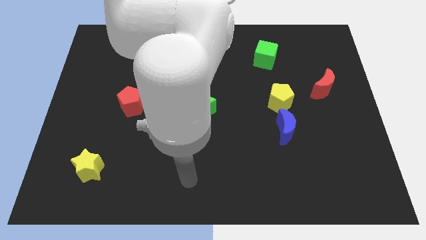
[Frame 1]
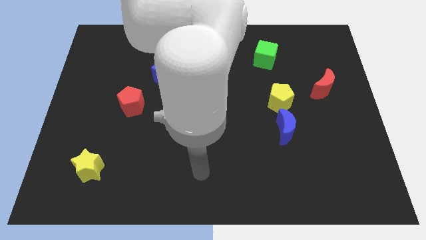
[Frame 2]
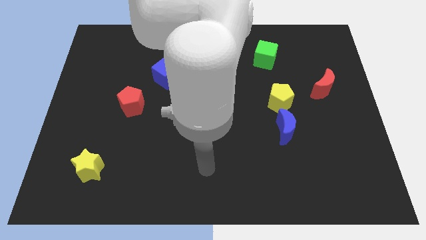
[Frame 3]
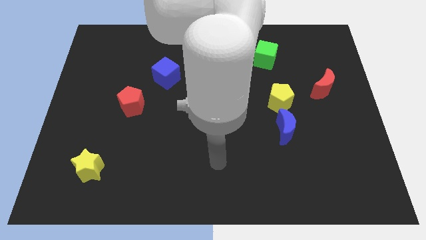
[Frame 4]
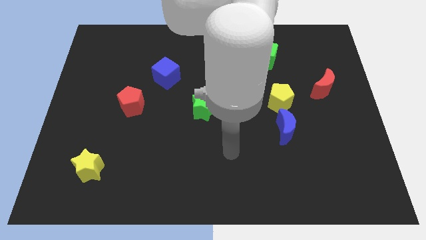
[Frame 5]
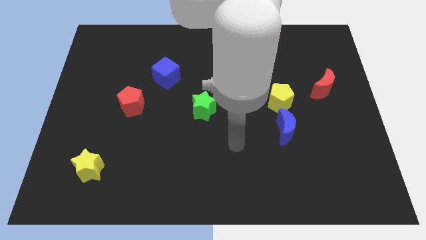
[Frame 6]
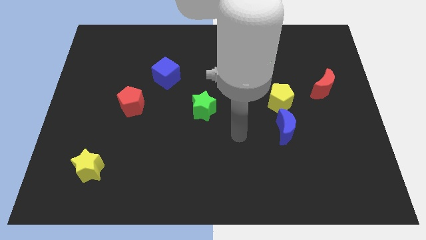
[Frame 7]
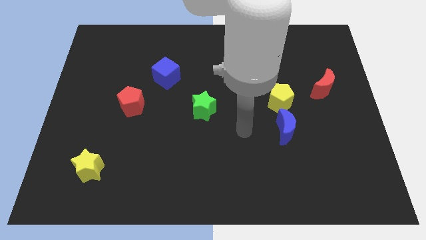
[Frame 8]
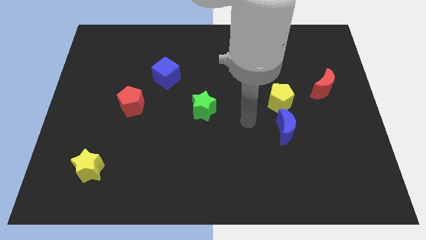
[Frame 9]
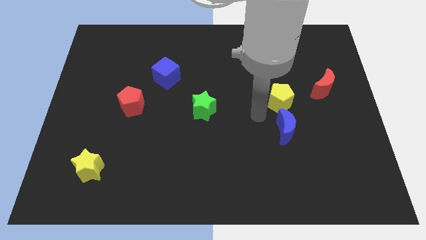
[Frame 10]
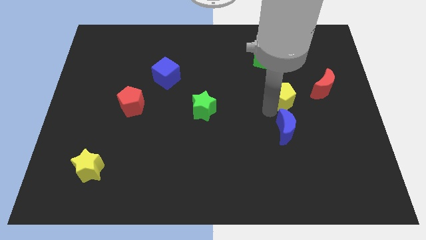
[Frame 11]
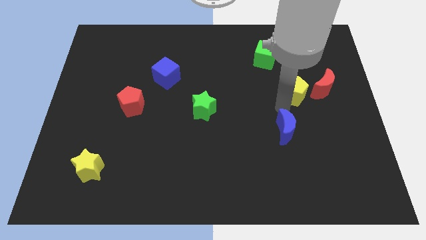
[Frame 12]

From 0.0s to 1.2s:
pull the blue moon apart from the yellow pentagon

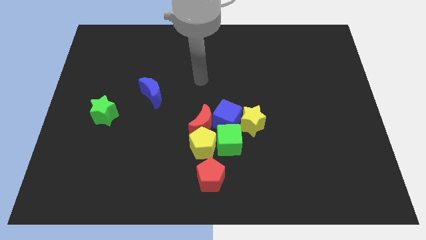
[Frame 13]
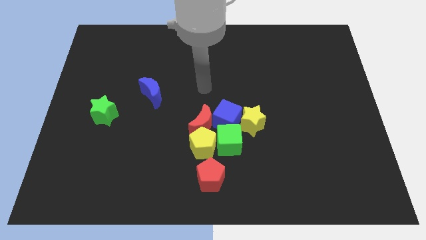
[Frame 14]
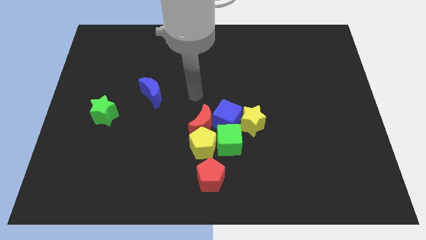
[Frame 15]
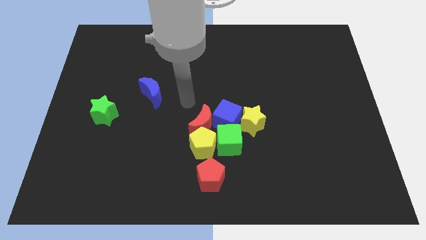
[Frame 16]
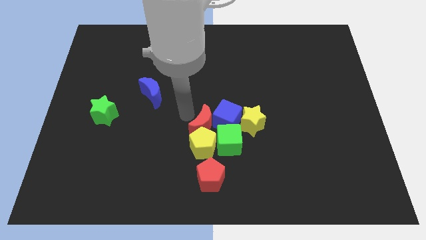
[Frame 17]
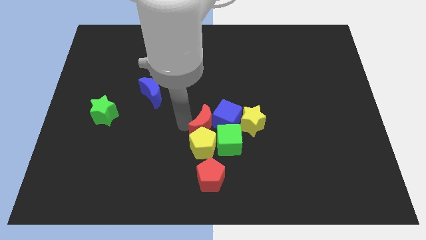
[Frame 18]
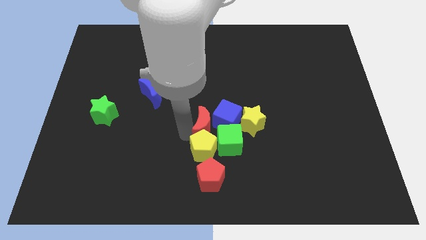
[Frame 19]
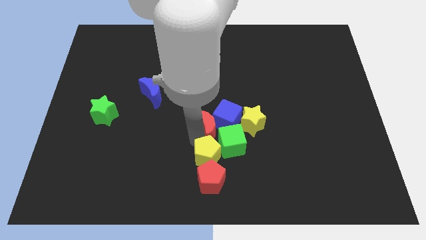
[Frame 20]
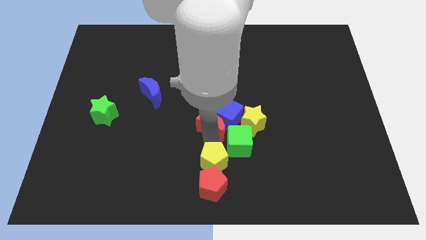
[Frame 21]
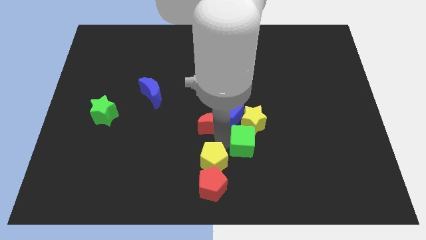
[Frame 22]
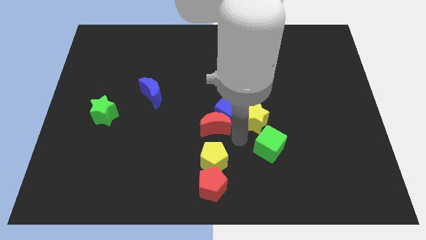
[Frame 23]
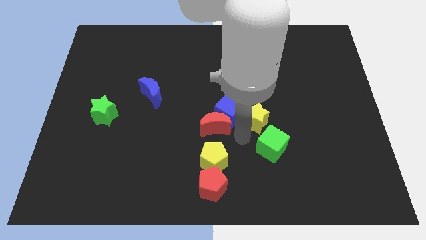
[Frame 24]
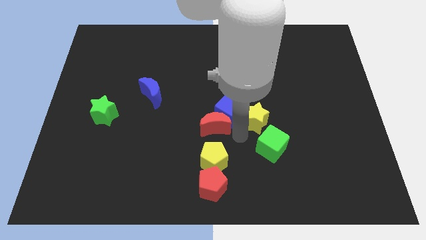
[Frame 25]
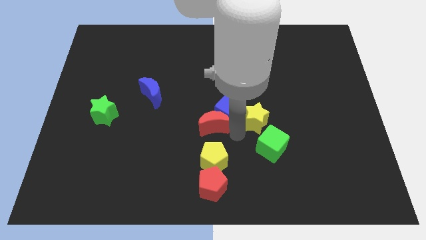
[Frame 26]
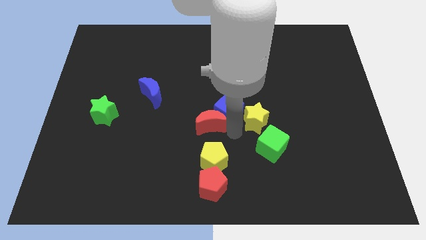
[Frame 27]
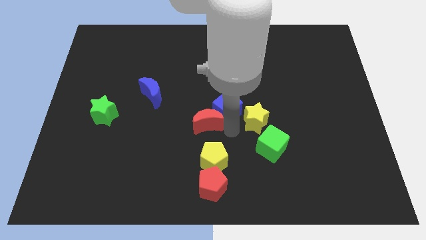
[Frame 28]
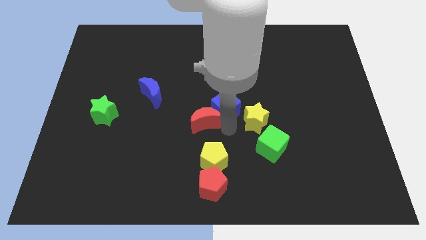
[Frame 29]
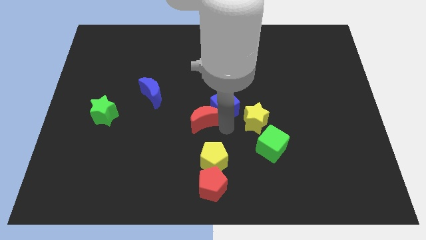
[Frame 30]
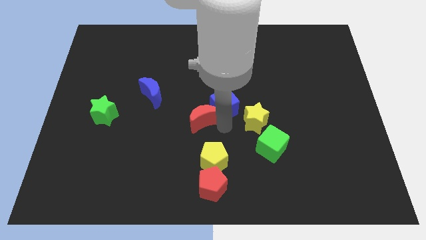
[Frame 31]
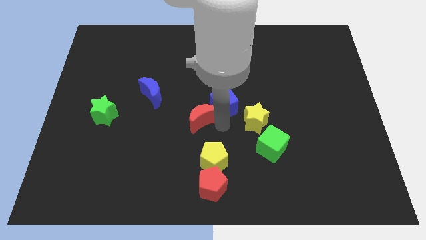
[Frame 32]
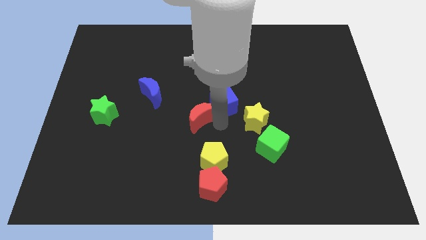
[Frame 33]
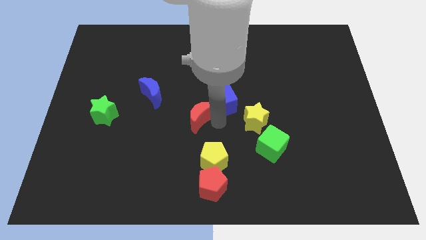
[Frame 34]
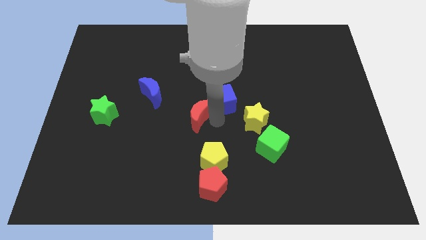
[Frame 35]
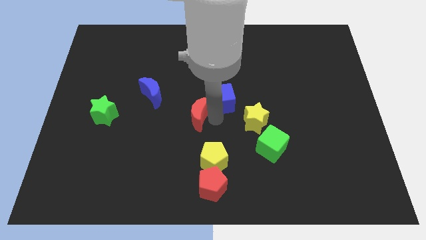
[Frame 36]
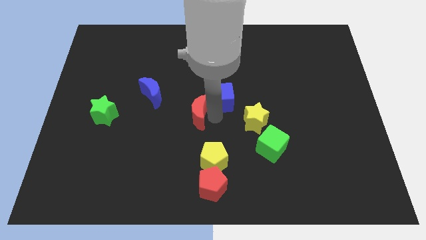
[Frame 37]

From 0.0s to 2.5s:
pull the red moon apart from the clump

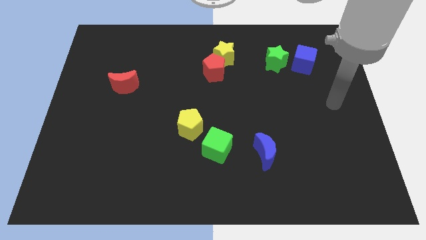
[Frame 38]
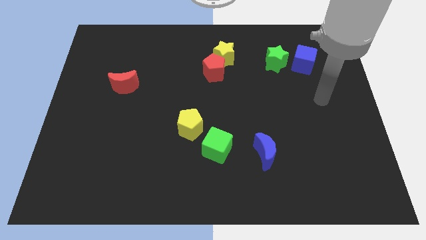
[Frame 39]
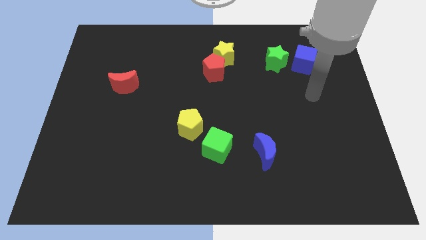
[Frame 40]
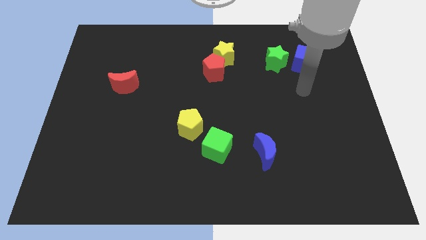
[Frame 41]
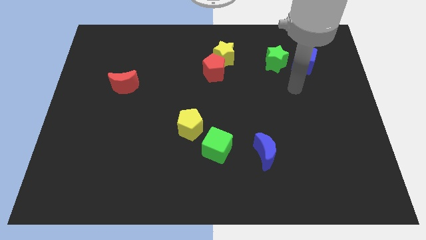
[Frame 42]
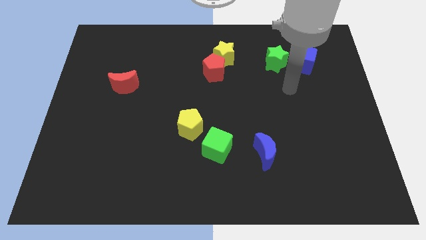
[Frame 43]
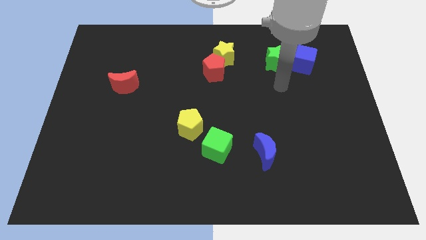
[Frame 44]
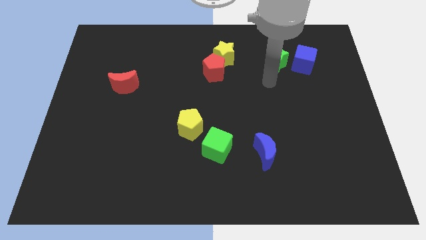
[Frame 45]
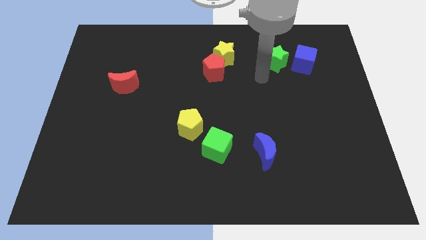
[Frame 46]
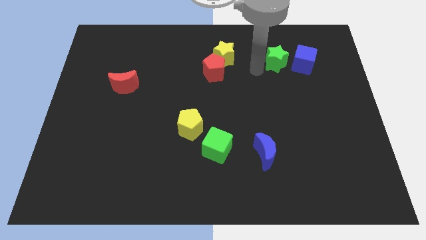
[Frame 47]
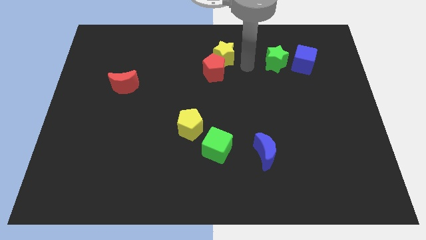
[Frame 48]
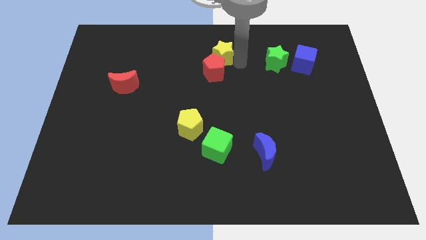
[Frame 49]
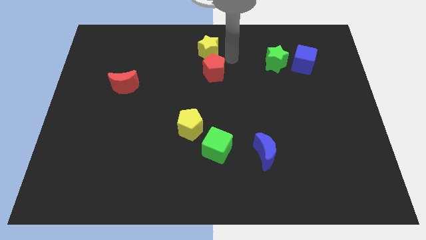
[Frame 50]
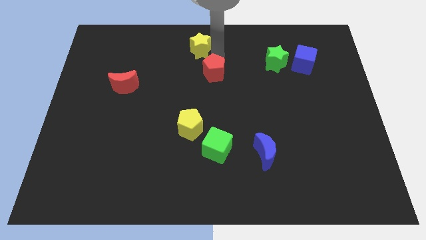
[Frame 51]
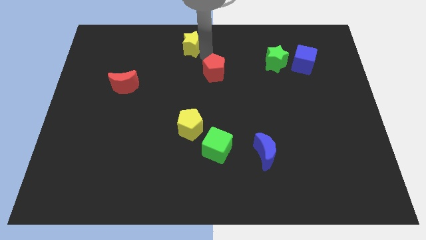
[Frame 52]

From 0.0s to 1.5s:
separate the red pentagon from the yellow star

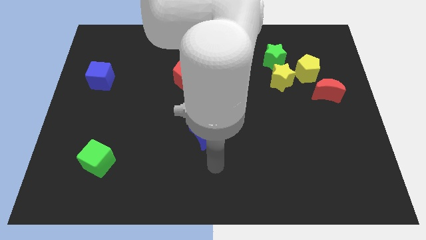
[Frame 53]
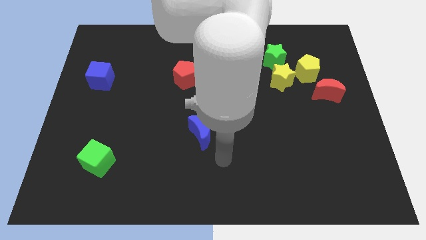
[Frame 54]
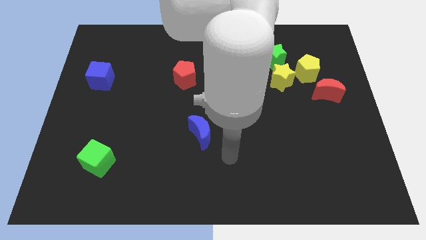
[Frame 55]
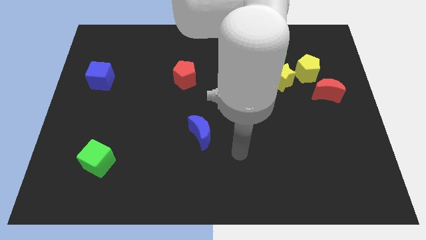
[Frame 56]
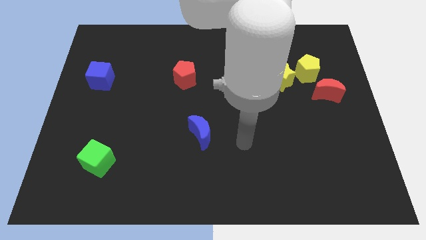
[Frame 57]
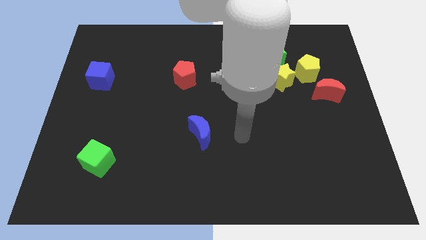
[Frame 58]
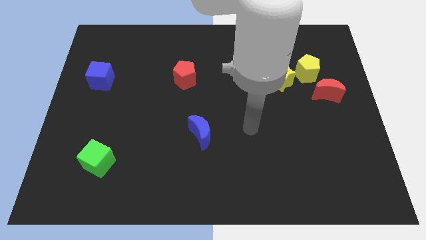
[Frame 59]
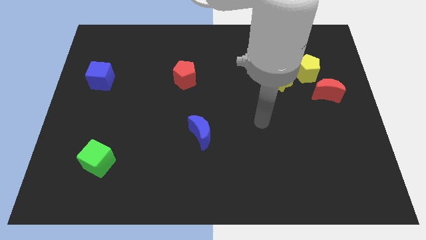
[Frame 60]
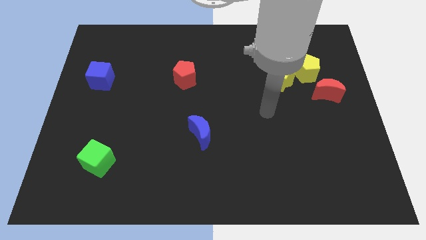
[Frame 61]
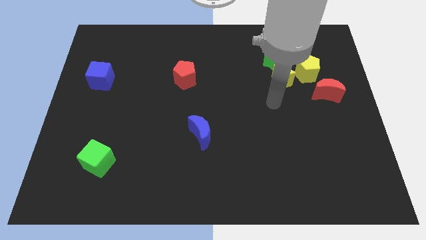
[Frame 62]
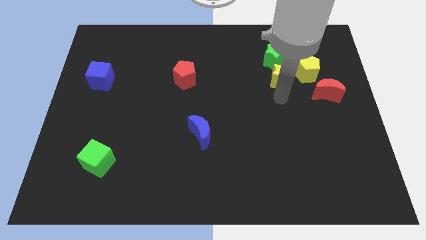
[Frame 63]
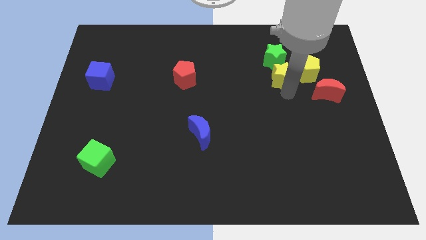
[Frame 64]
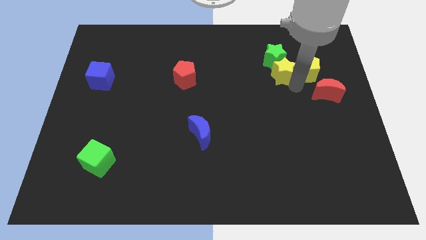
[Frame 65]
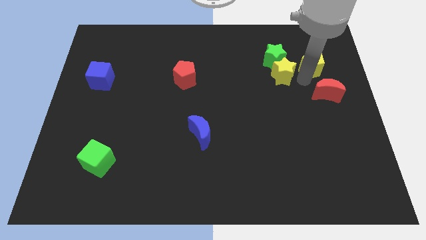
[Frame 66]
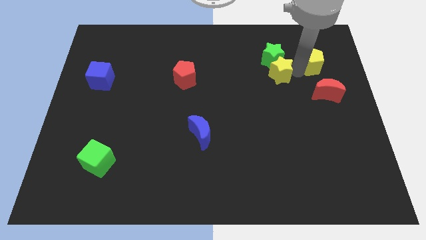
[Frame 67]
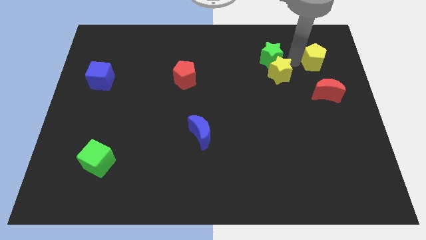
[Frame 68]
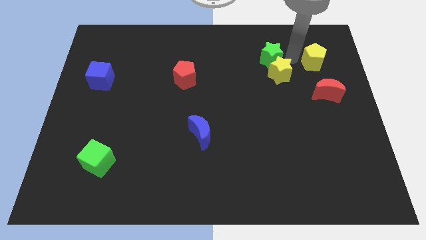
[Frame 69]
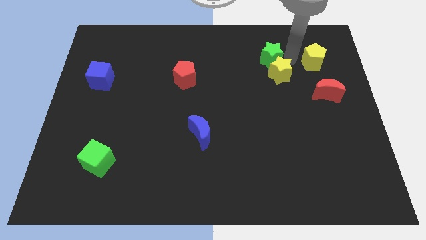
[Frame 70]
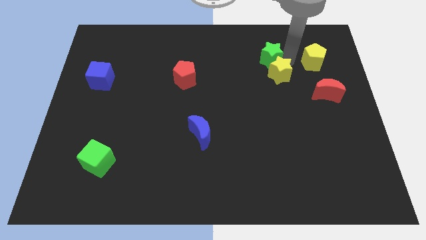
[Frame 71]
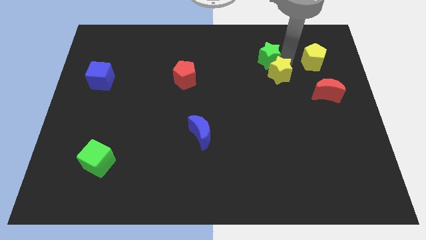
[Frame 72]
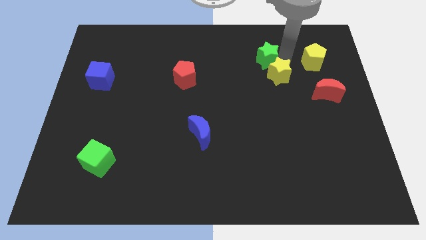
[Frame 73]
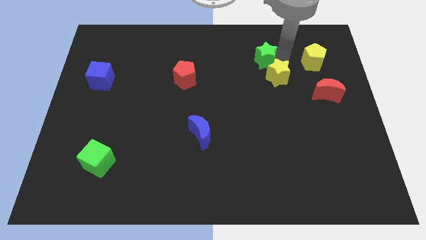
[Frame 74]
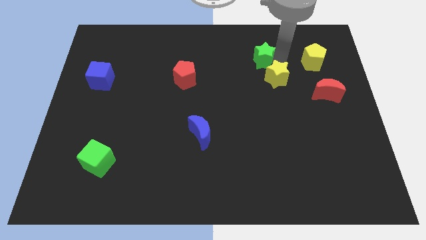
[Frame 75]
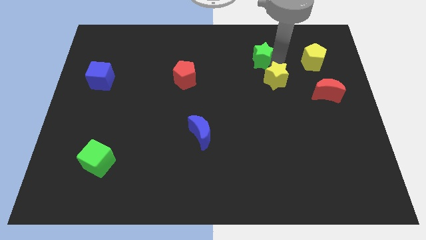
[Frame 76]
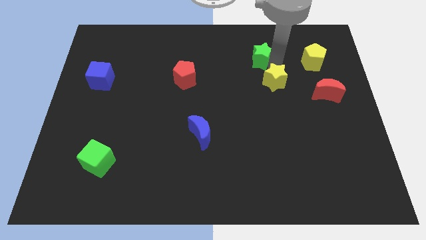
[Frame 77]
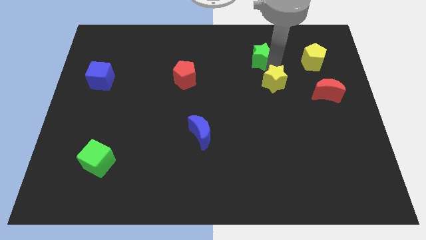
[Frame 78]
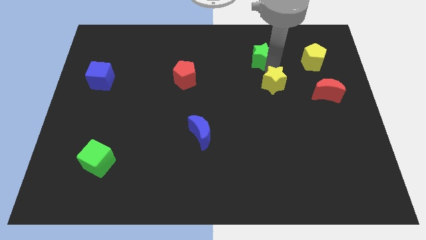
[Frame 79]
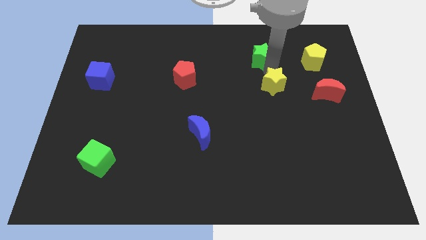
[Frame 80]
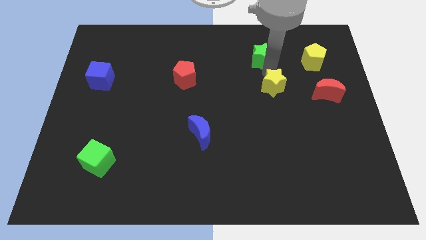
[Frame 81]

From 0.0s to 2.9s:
move the yellow star away from the green star and yellow pentagon

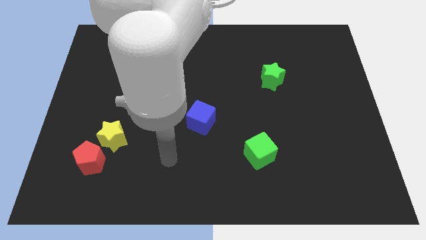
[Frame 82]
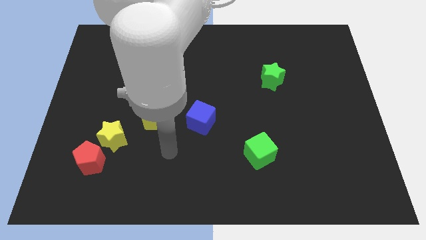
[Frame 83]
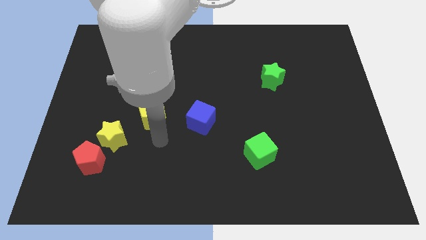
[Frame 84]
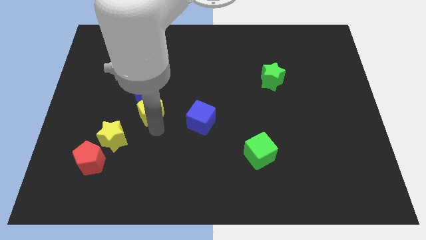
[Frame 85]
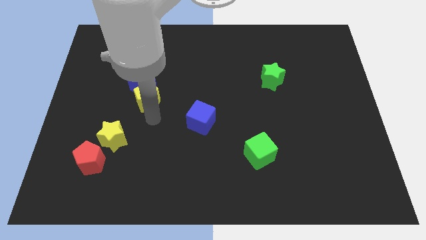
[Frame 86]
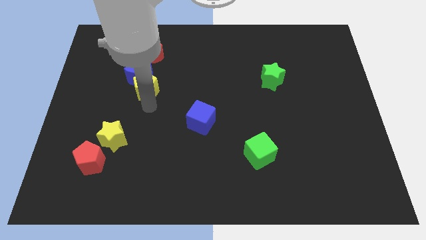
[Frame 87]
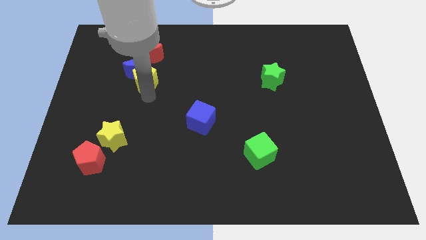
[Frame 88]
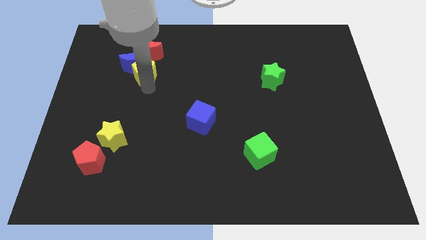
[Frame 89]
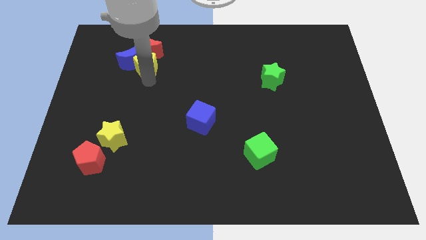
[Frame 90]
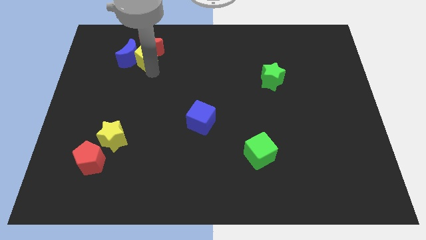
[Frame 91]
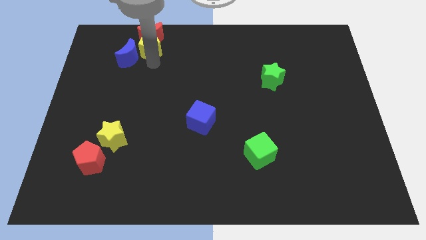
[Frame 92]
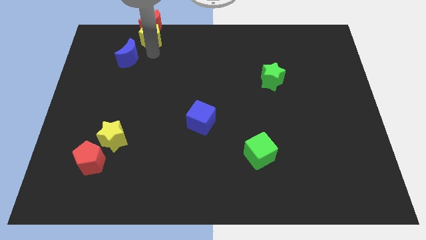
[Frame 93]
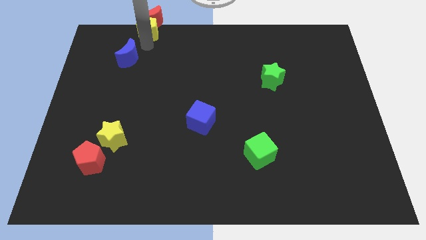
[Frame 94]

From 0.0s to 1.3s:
separate the blue moon from the yellow pentagon
